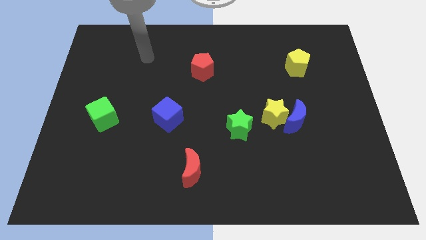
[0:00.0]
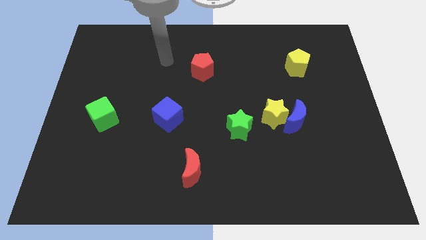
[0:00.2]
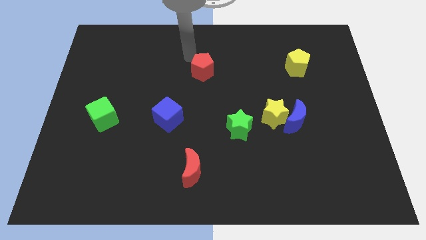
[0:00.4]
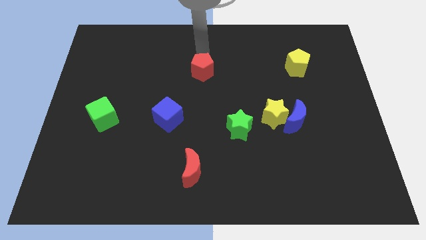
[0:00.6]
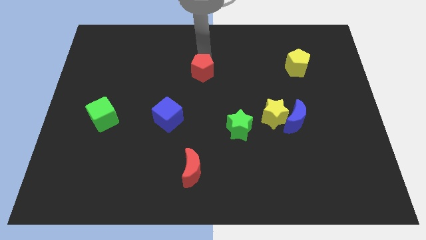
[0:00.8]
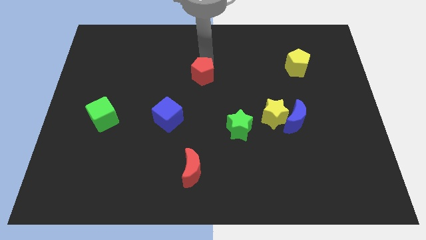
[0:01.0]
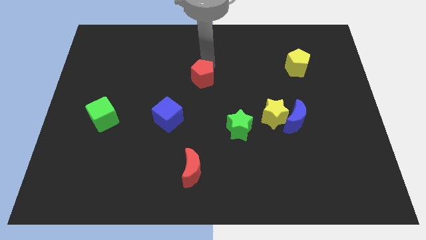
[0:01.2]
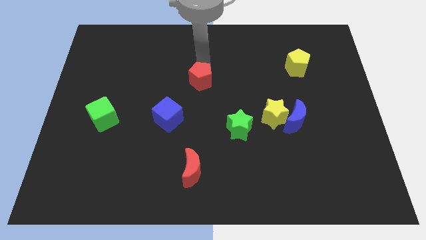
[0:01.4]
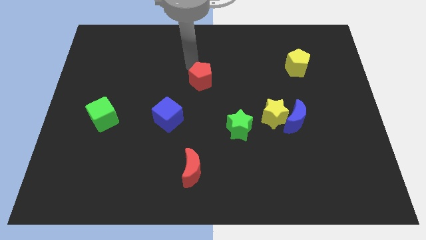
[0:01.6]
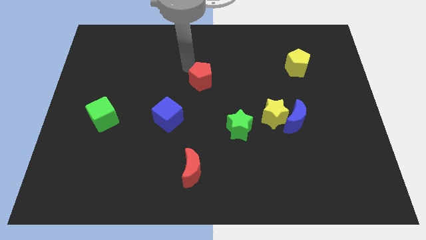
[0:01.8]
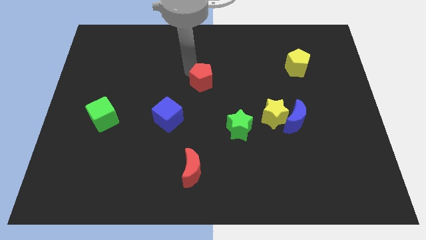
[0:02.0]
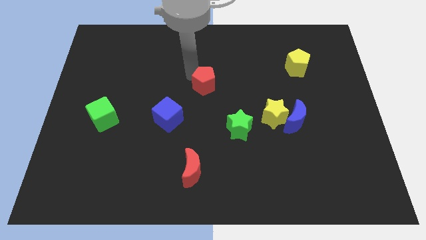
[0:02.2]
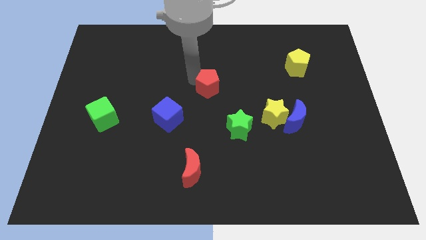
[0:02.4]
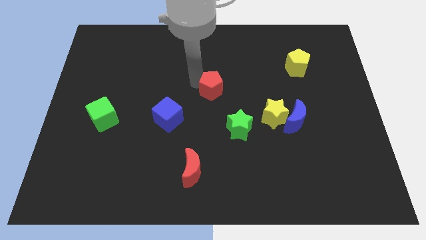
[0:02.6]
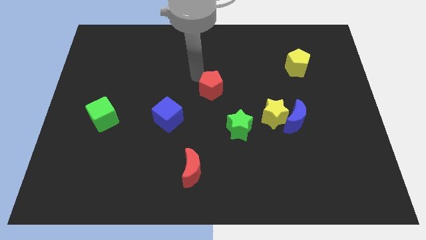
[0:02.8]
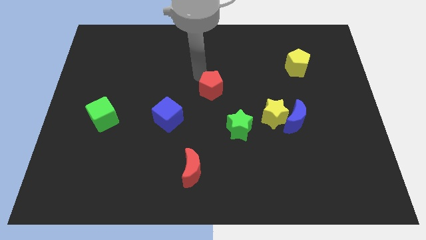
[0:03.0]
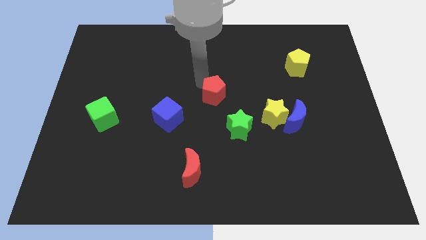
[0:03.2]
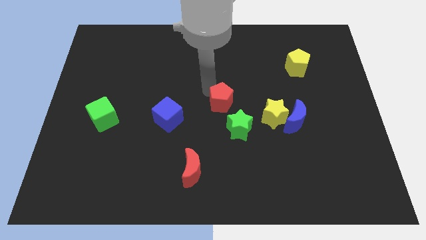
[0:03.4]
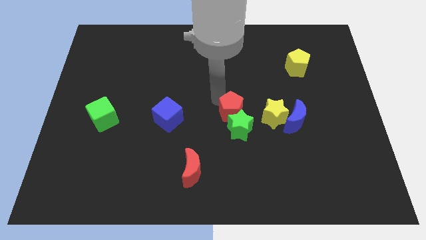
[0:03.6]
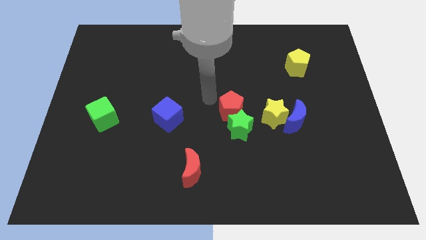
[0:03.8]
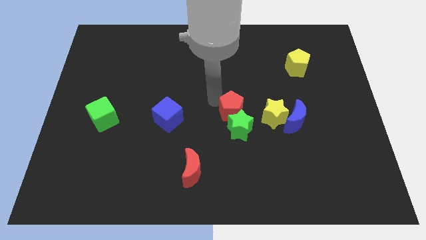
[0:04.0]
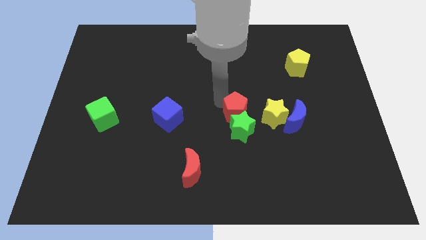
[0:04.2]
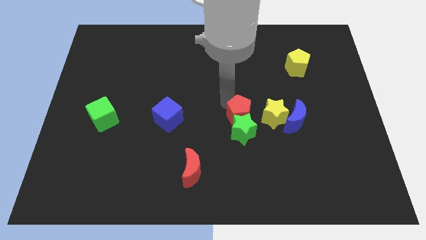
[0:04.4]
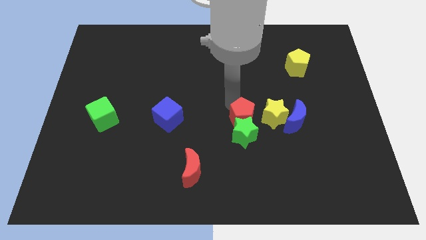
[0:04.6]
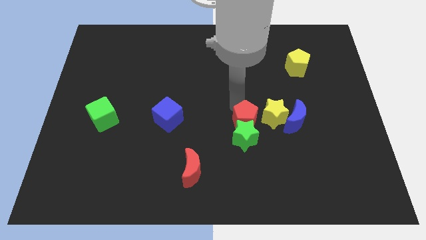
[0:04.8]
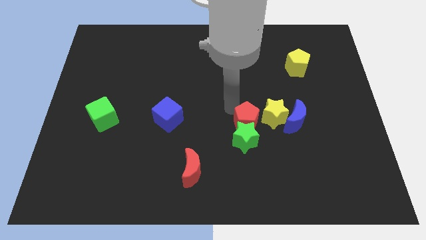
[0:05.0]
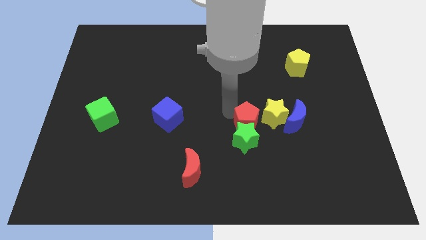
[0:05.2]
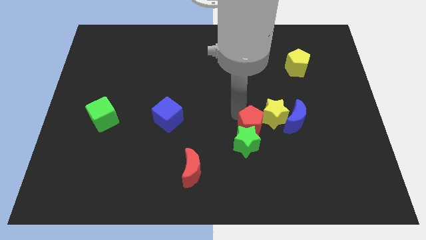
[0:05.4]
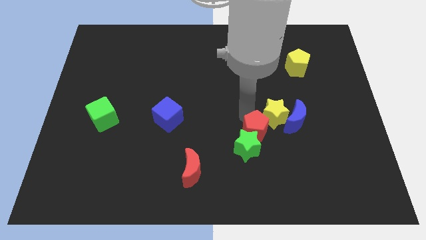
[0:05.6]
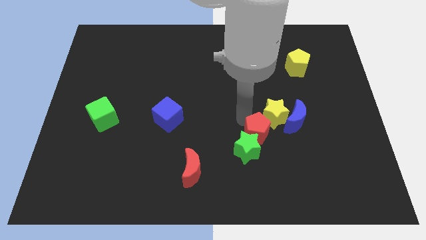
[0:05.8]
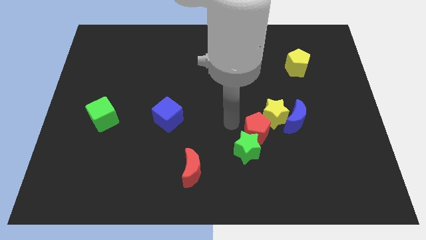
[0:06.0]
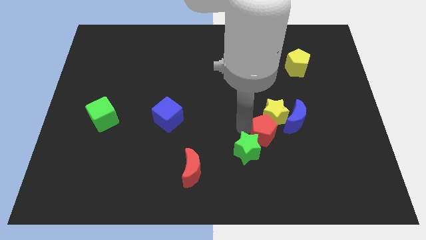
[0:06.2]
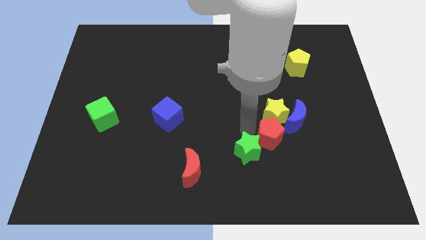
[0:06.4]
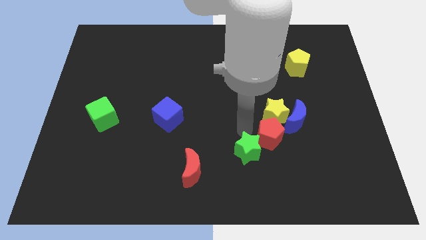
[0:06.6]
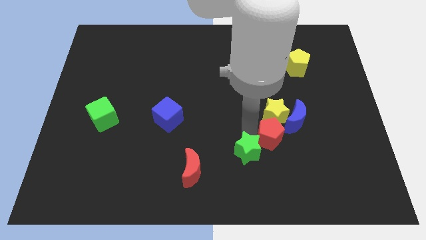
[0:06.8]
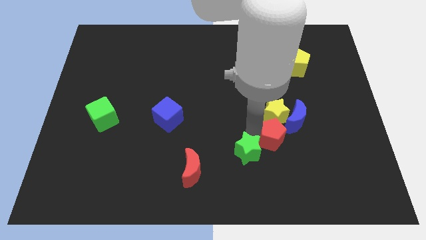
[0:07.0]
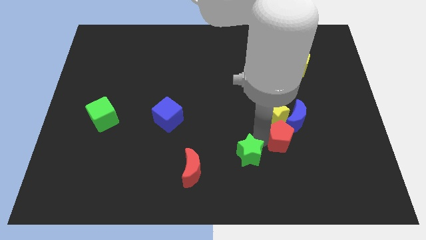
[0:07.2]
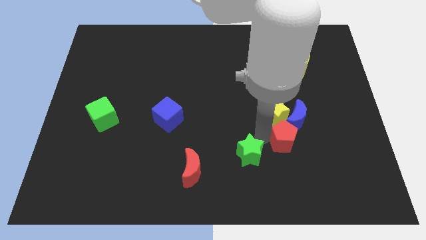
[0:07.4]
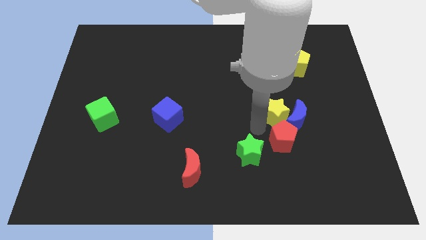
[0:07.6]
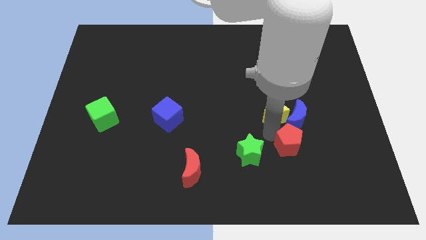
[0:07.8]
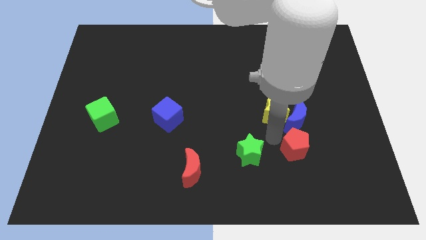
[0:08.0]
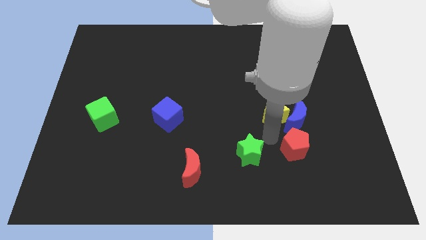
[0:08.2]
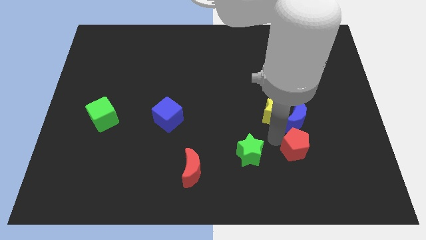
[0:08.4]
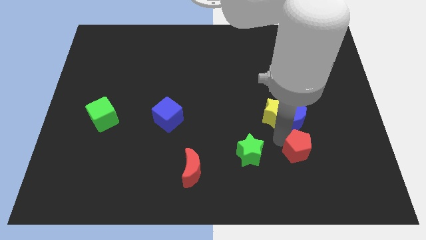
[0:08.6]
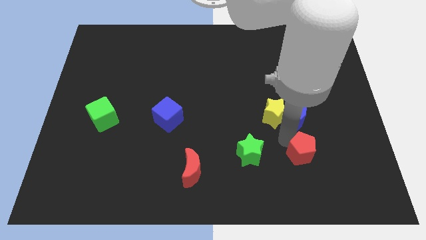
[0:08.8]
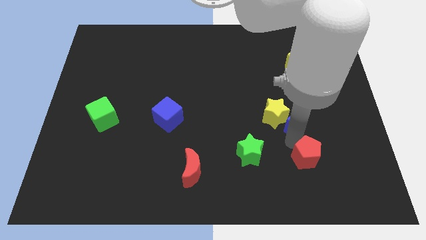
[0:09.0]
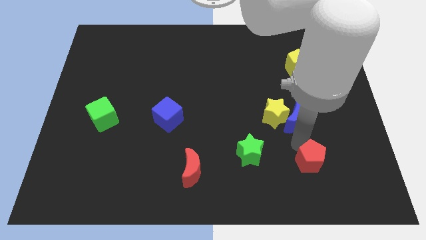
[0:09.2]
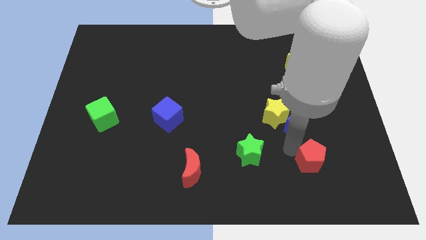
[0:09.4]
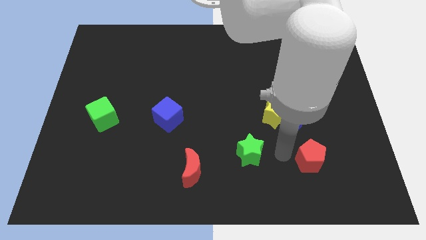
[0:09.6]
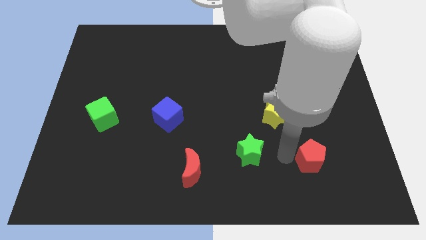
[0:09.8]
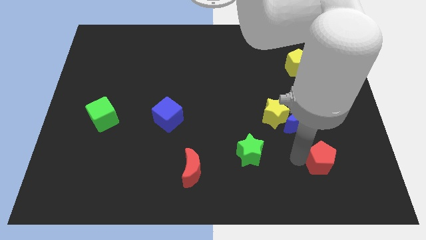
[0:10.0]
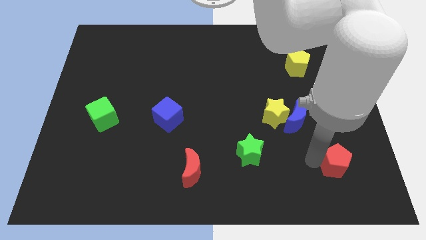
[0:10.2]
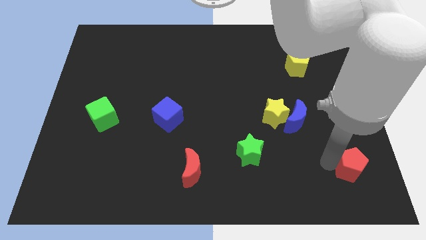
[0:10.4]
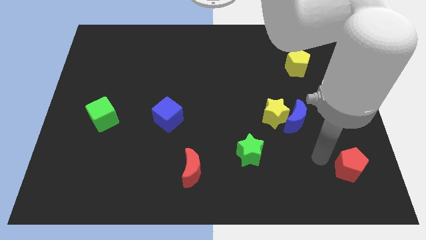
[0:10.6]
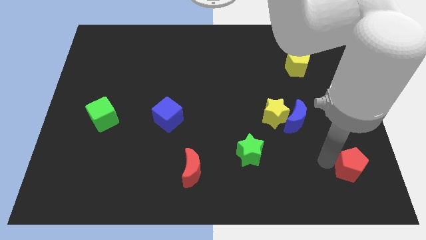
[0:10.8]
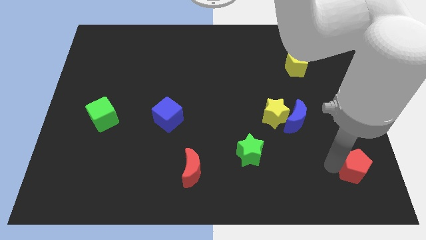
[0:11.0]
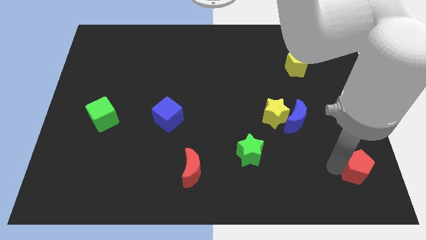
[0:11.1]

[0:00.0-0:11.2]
put the red pentagon to the lower right corner
